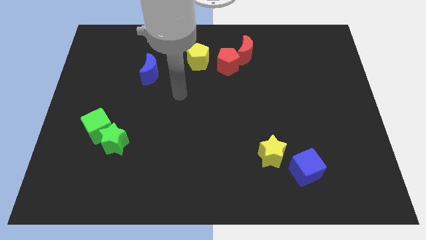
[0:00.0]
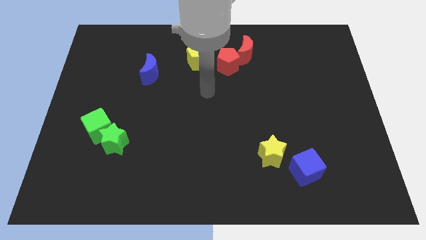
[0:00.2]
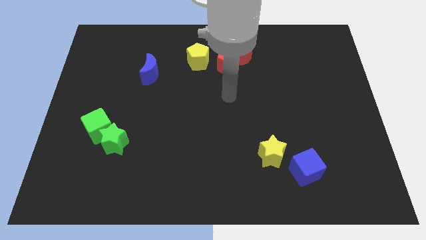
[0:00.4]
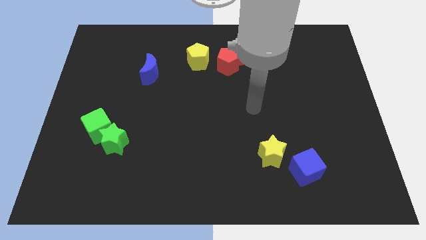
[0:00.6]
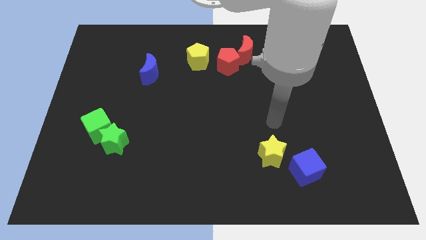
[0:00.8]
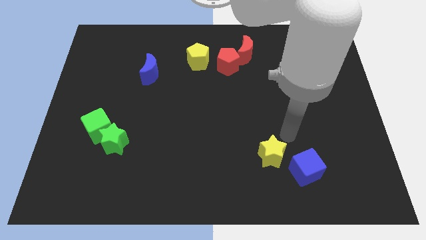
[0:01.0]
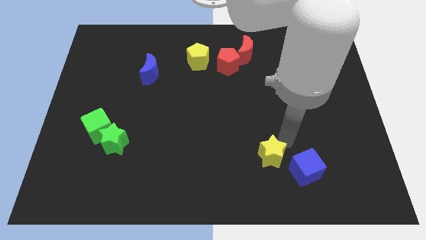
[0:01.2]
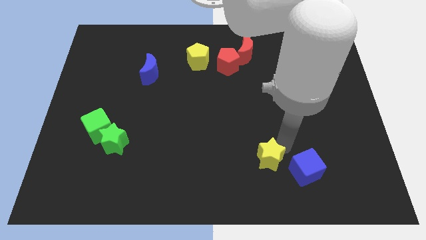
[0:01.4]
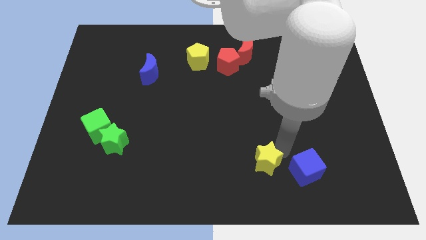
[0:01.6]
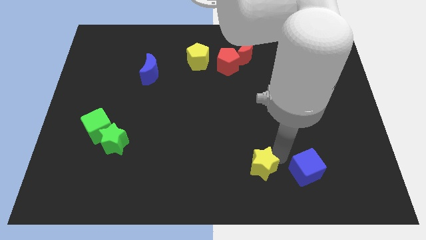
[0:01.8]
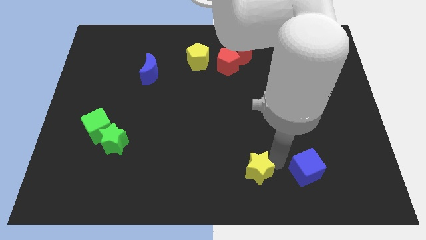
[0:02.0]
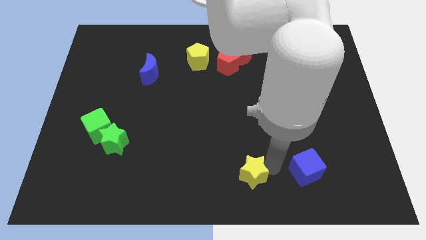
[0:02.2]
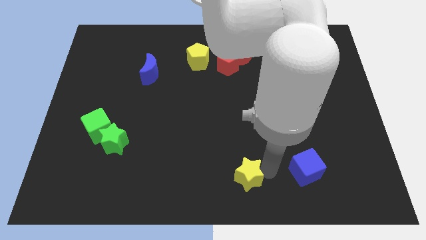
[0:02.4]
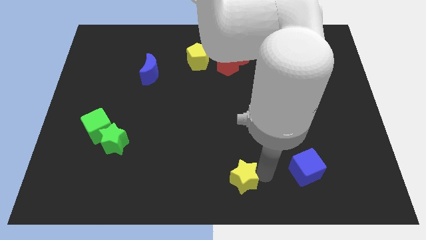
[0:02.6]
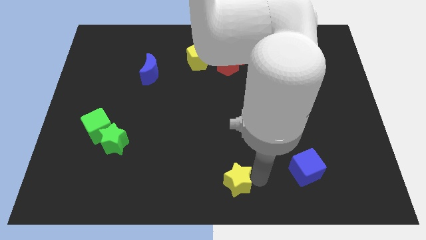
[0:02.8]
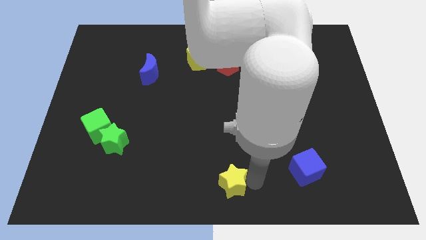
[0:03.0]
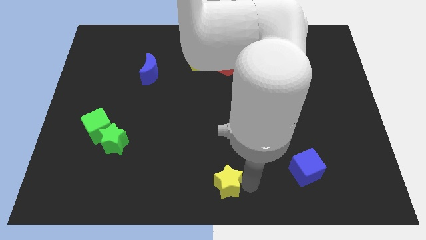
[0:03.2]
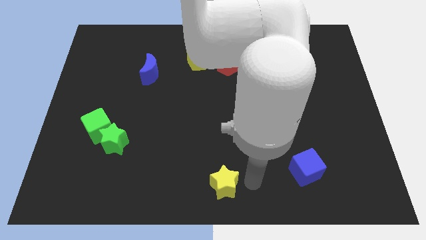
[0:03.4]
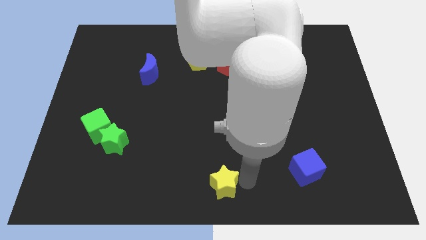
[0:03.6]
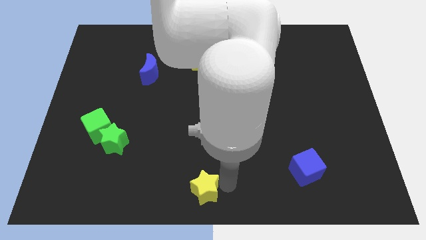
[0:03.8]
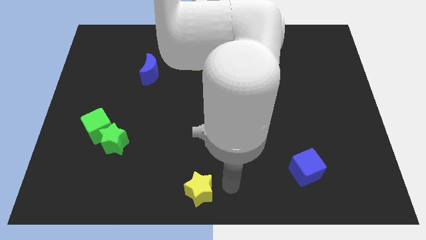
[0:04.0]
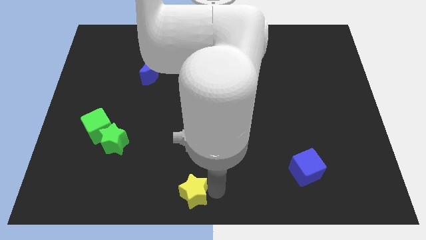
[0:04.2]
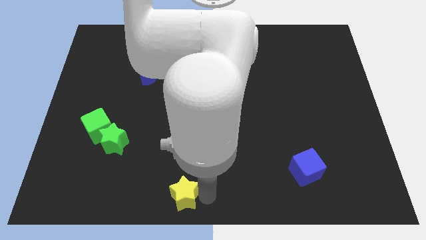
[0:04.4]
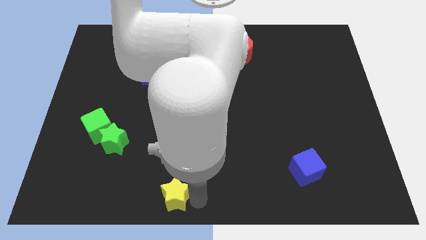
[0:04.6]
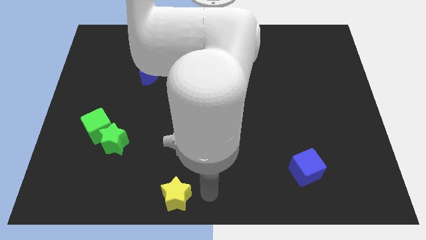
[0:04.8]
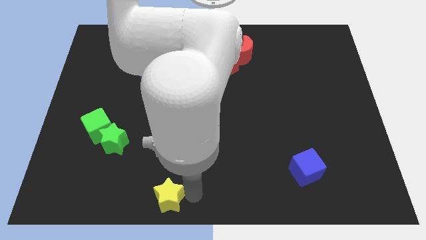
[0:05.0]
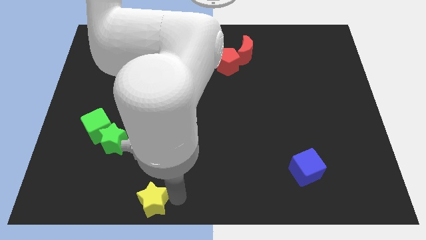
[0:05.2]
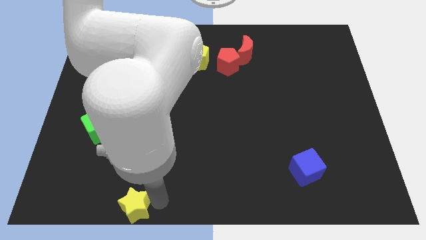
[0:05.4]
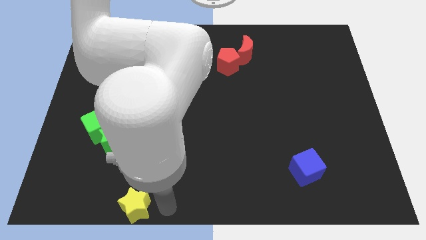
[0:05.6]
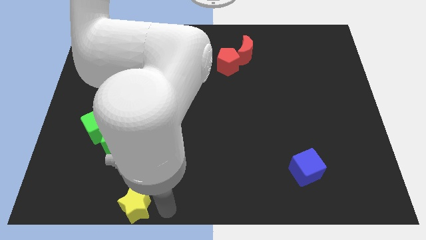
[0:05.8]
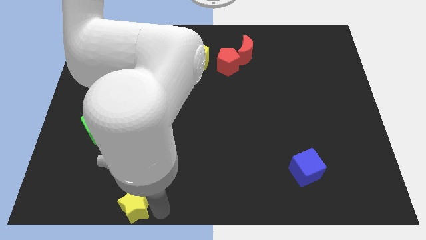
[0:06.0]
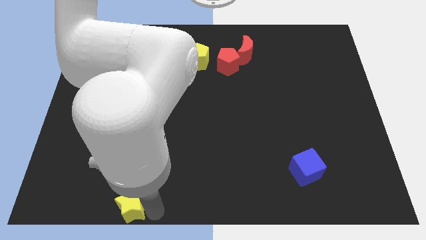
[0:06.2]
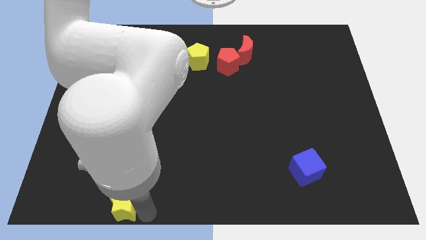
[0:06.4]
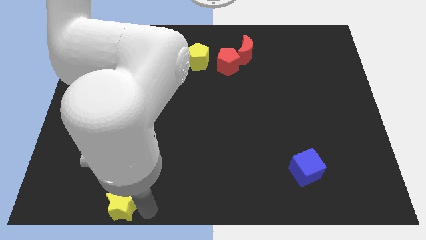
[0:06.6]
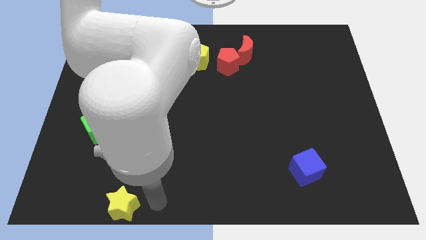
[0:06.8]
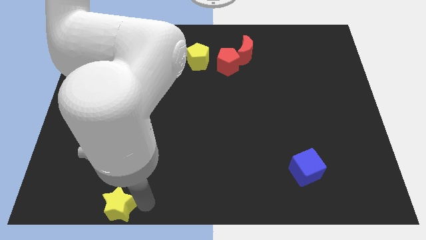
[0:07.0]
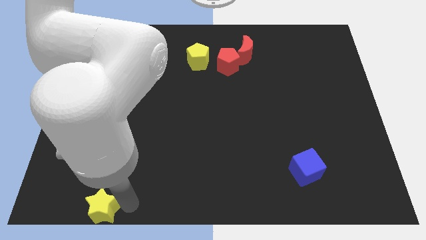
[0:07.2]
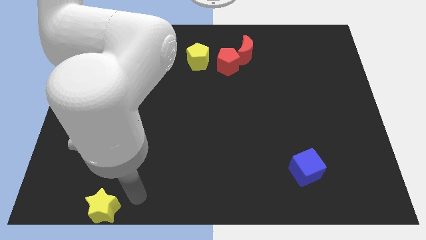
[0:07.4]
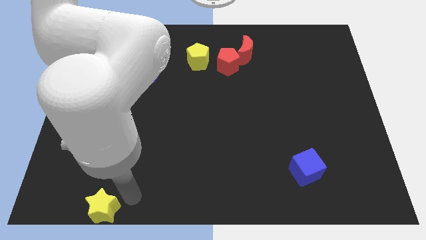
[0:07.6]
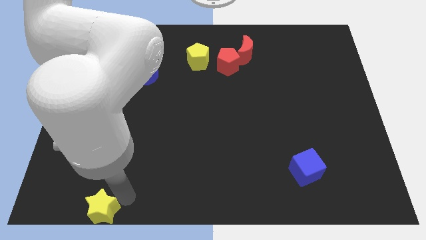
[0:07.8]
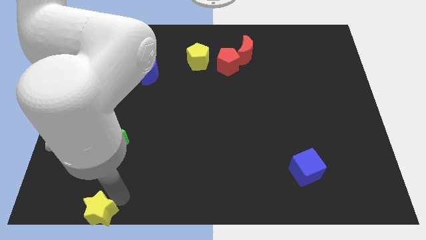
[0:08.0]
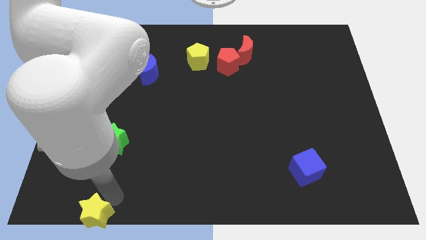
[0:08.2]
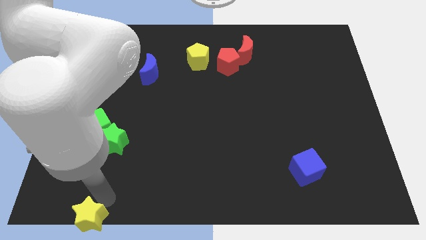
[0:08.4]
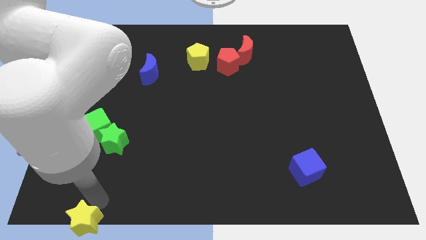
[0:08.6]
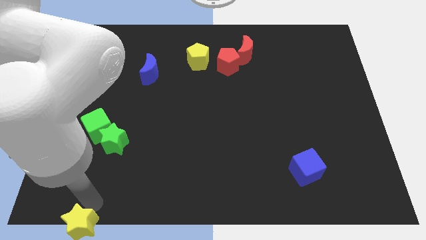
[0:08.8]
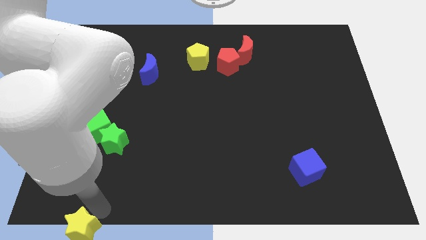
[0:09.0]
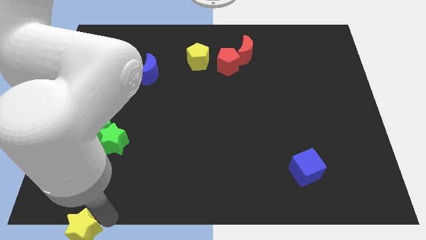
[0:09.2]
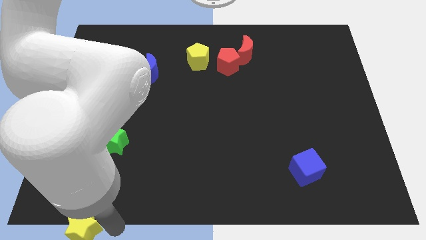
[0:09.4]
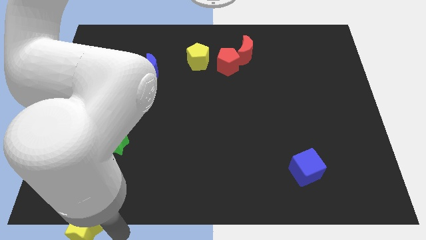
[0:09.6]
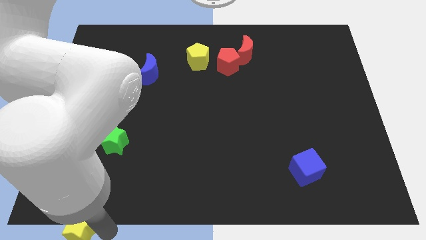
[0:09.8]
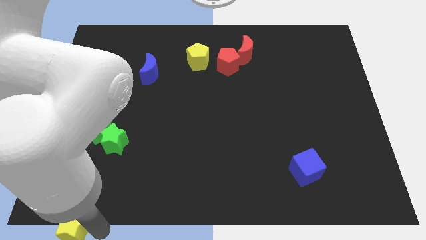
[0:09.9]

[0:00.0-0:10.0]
put the yellow star to the bottom left corner
